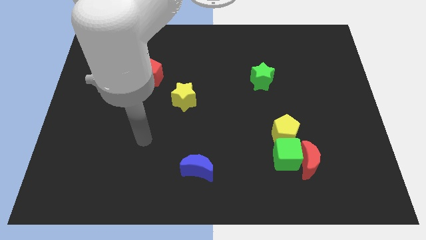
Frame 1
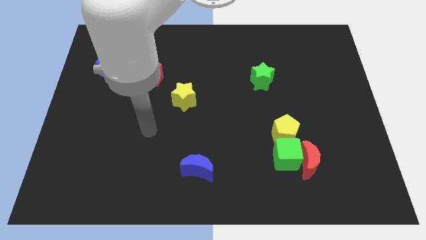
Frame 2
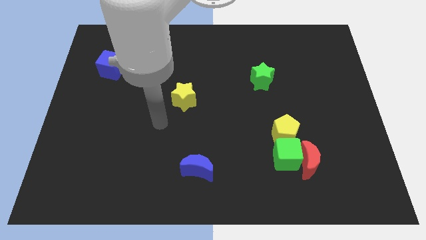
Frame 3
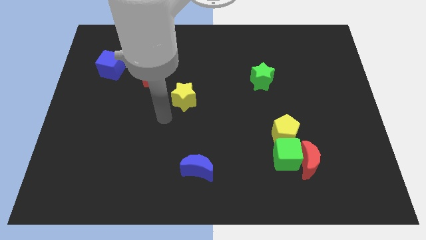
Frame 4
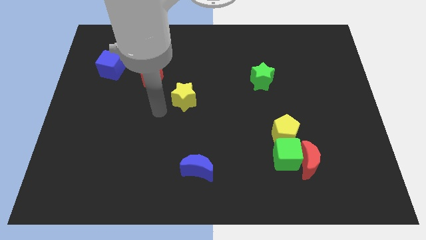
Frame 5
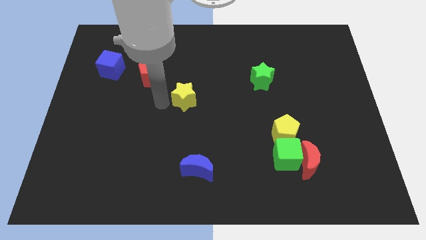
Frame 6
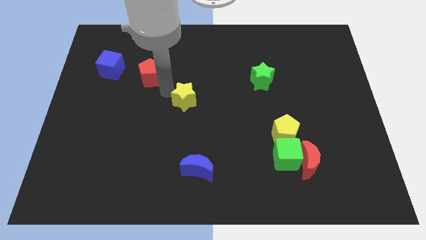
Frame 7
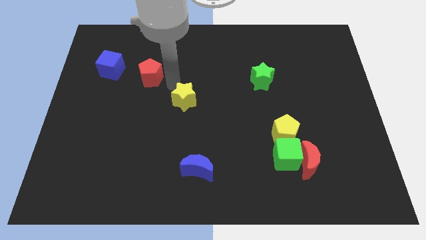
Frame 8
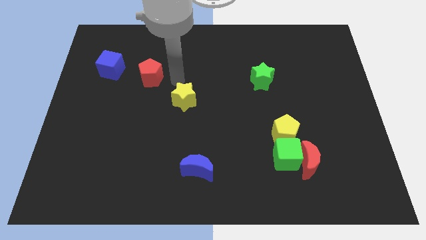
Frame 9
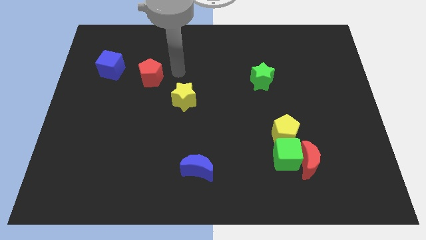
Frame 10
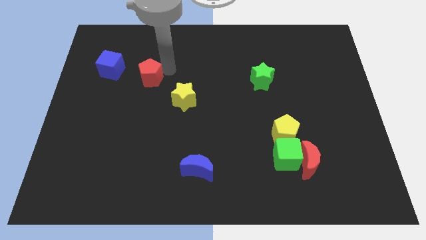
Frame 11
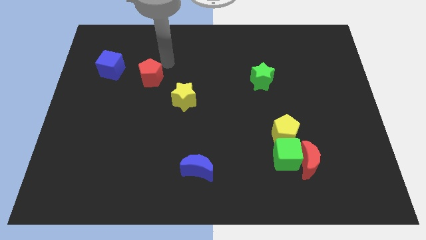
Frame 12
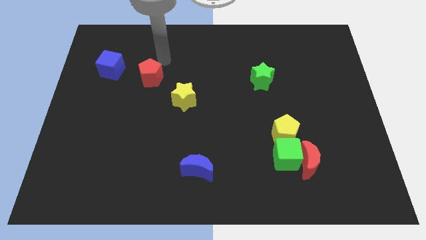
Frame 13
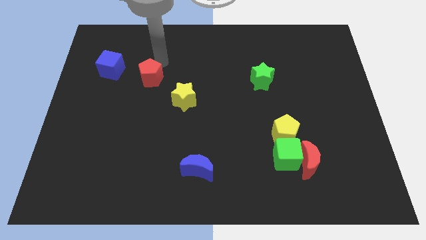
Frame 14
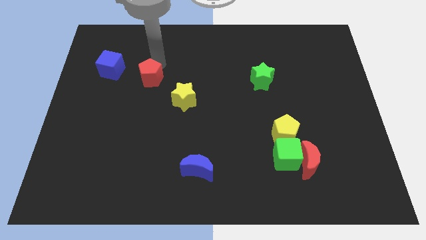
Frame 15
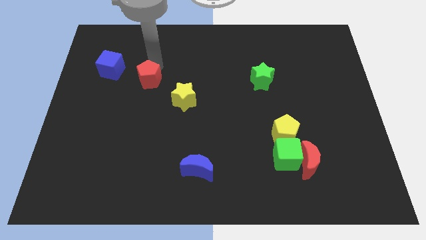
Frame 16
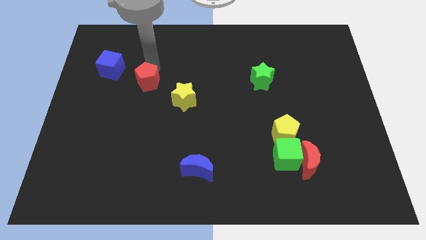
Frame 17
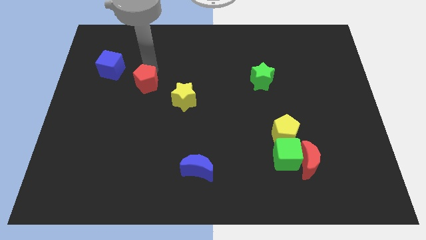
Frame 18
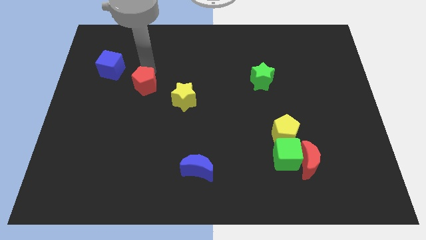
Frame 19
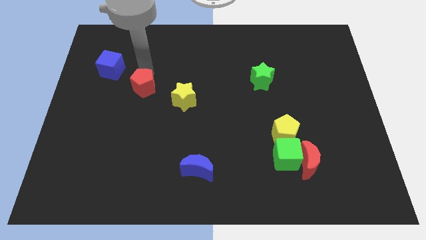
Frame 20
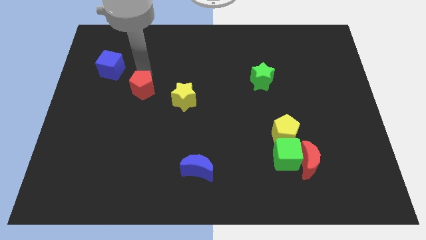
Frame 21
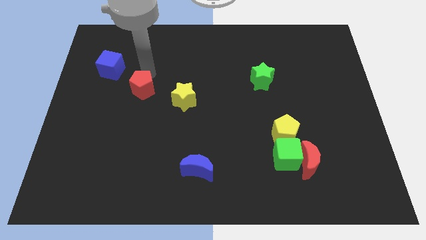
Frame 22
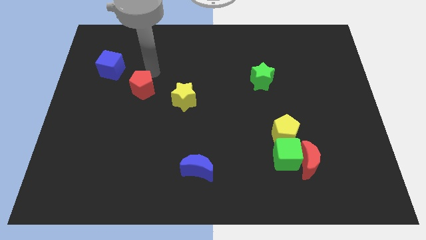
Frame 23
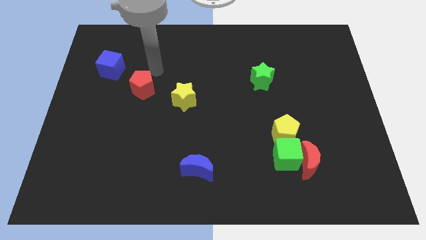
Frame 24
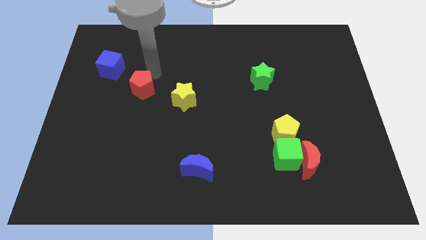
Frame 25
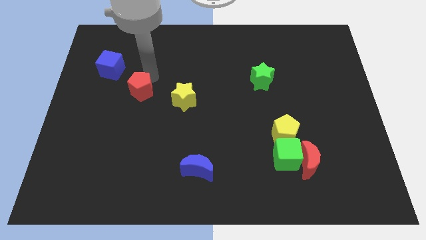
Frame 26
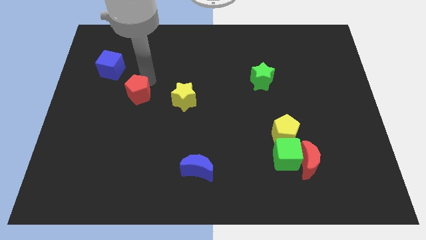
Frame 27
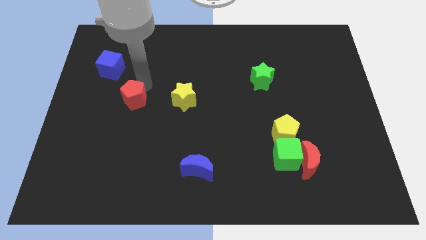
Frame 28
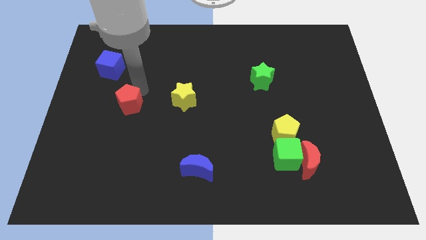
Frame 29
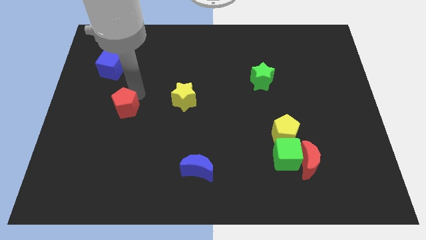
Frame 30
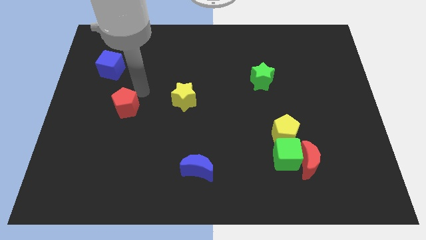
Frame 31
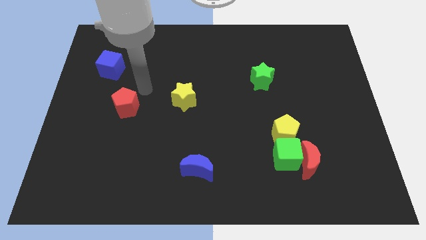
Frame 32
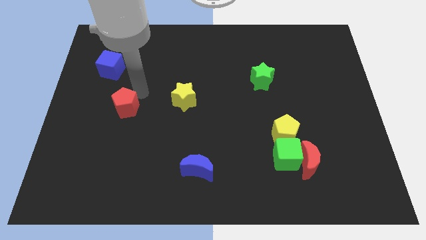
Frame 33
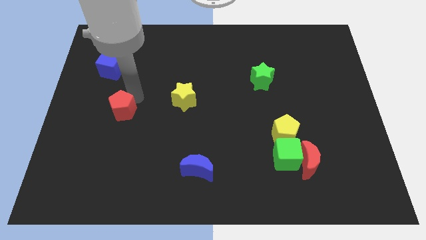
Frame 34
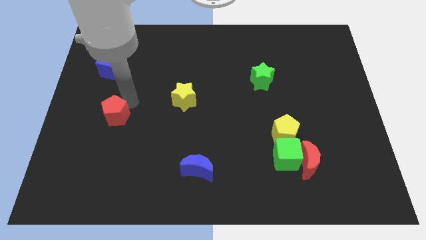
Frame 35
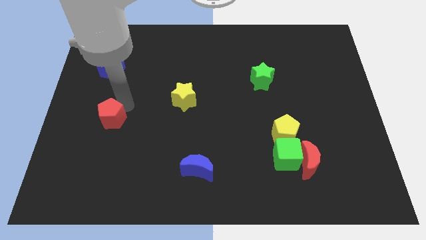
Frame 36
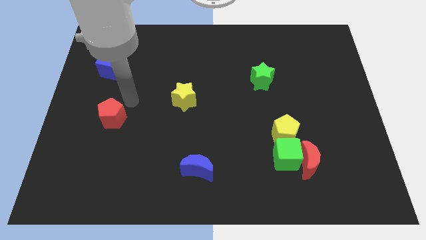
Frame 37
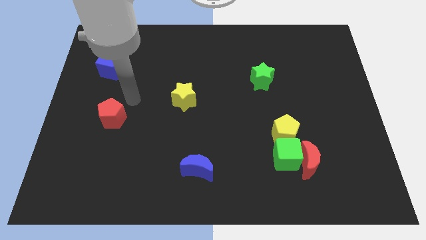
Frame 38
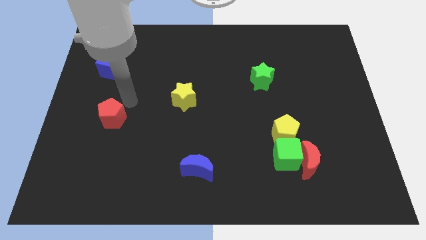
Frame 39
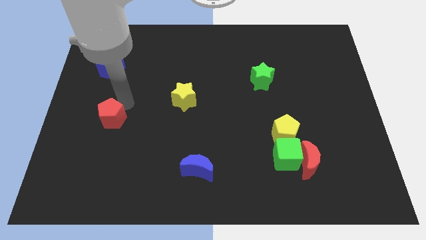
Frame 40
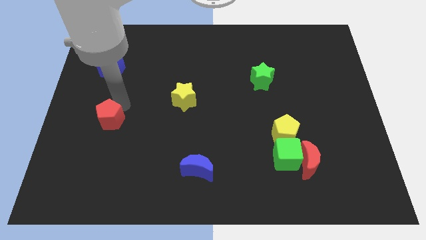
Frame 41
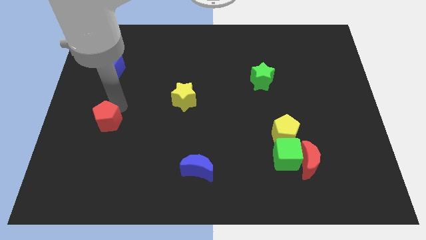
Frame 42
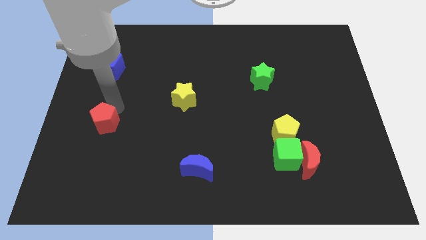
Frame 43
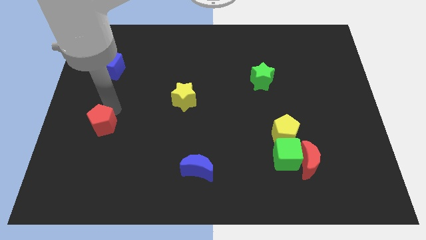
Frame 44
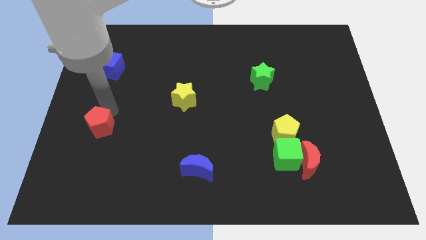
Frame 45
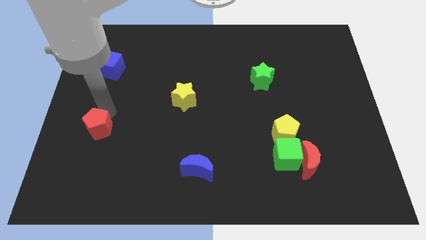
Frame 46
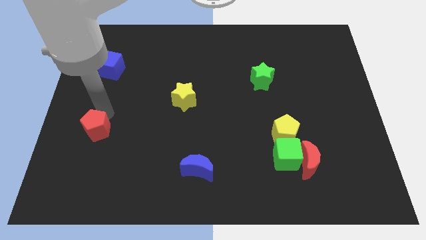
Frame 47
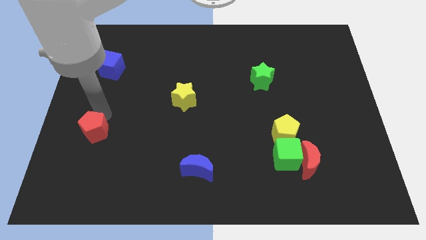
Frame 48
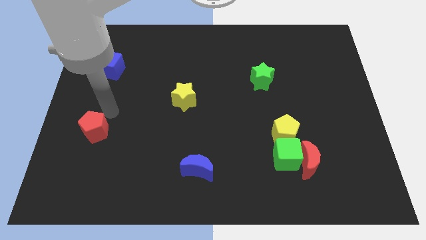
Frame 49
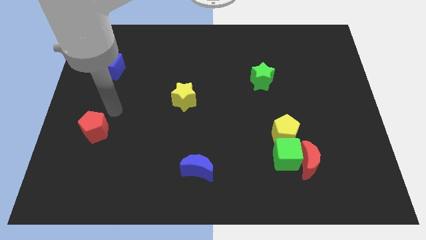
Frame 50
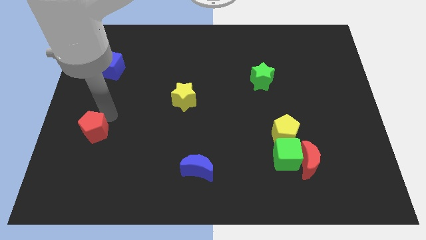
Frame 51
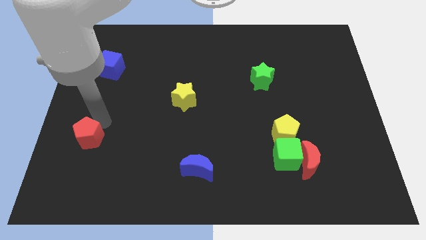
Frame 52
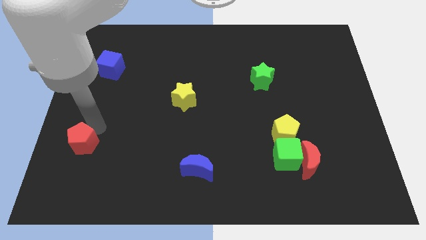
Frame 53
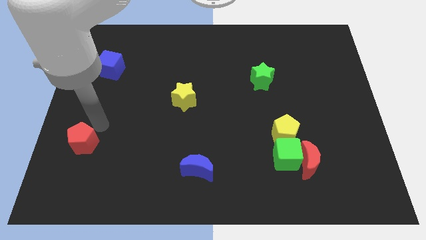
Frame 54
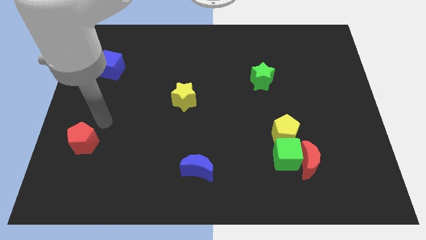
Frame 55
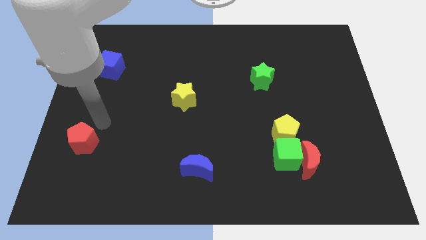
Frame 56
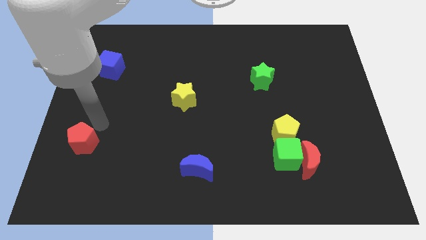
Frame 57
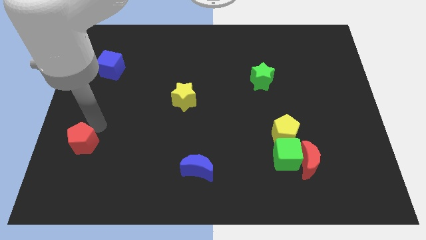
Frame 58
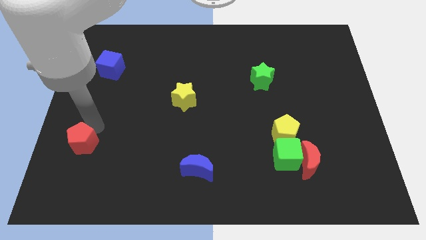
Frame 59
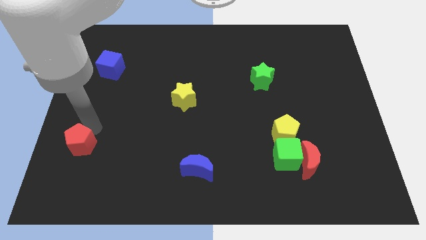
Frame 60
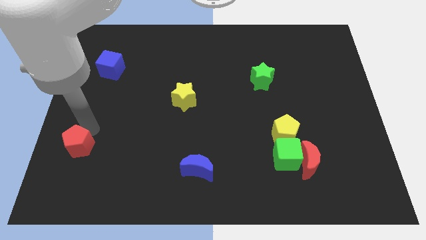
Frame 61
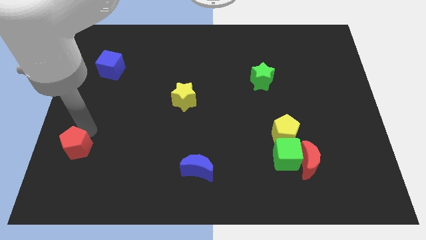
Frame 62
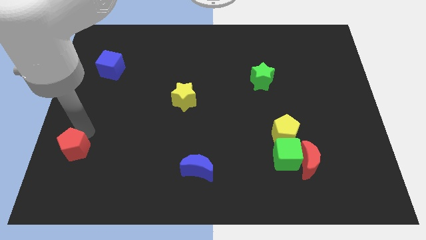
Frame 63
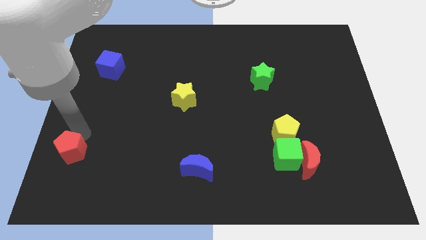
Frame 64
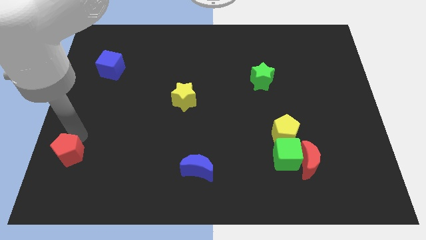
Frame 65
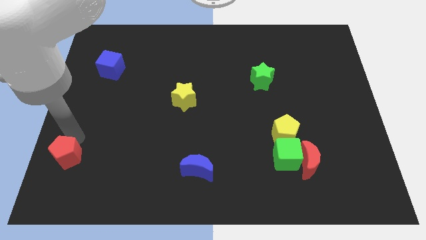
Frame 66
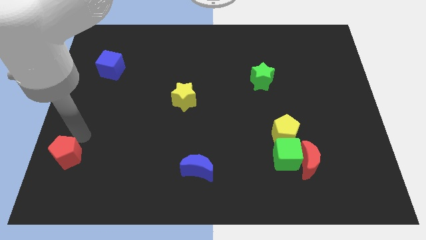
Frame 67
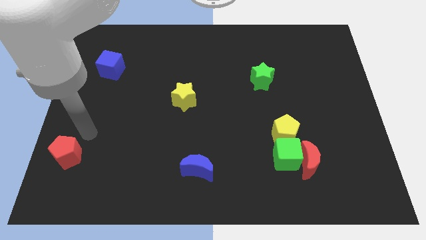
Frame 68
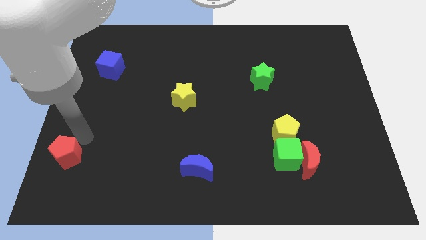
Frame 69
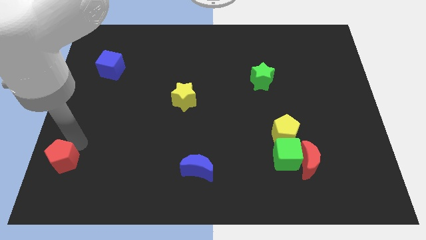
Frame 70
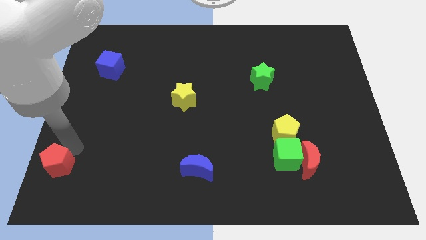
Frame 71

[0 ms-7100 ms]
move the red pentagon to the bottom left
